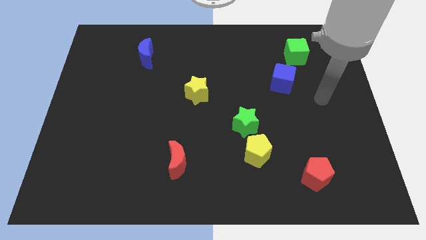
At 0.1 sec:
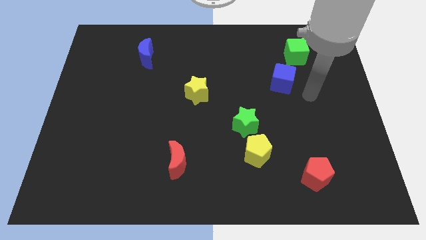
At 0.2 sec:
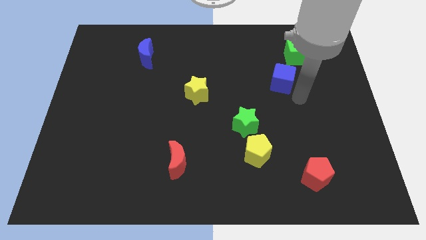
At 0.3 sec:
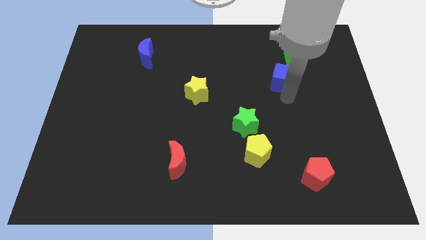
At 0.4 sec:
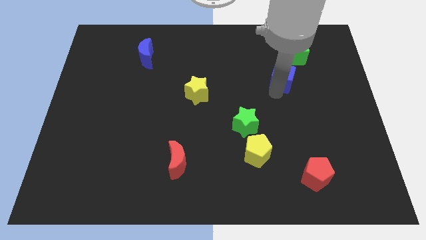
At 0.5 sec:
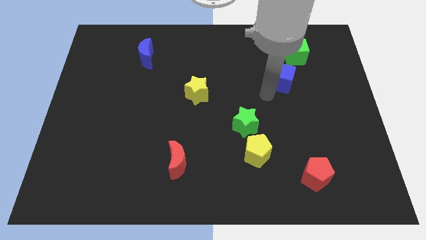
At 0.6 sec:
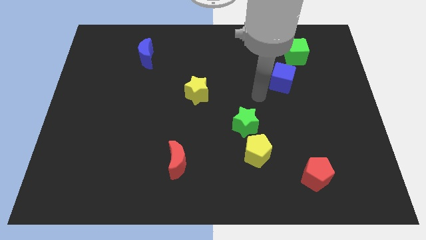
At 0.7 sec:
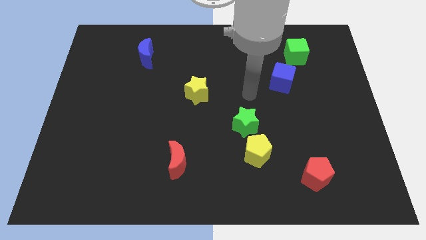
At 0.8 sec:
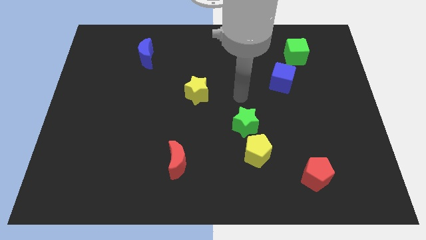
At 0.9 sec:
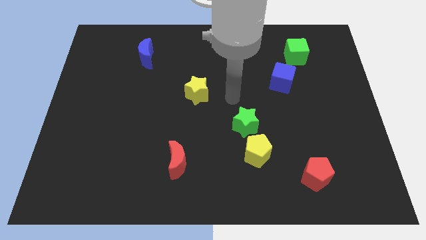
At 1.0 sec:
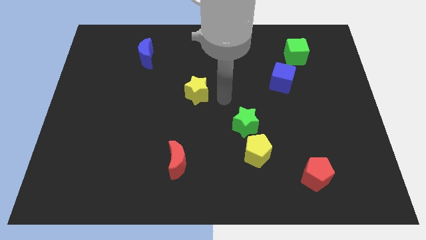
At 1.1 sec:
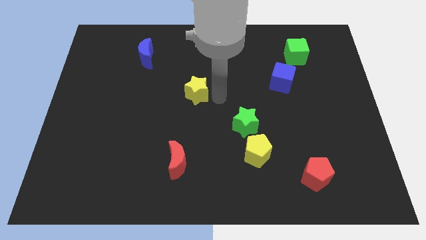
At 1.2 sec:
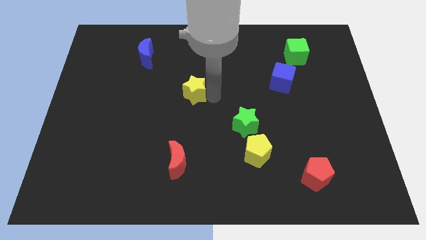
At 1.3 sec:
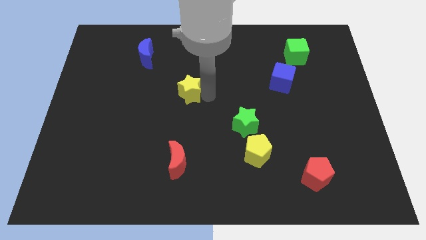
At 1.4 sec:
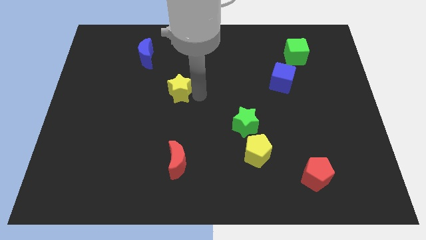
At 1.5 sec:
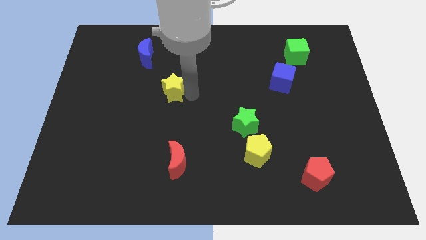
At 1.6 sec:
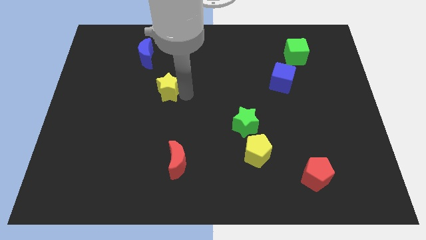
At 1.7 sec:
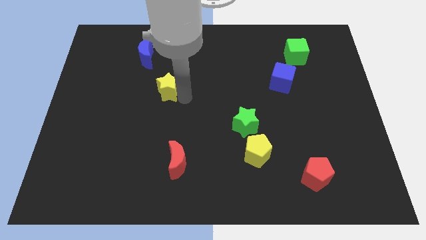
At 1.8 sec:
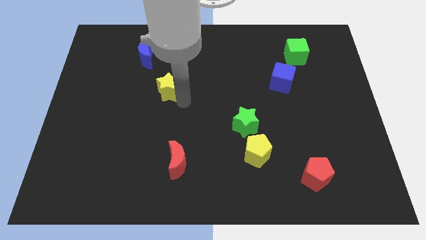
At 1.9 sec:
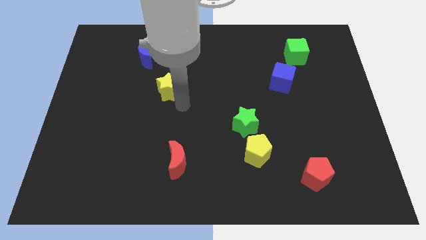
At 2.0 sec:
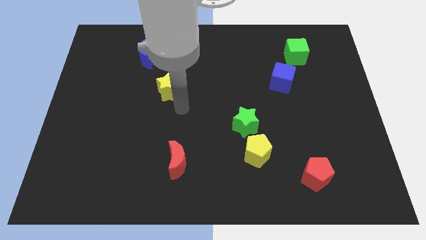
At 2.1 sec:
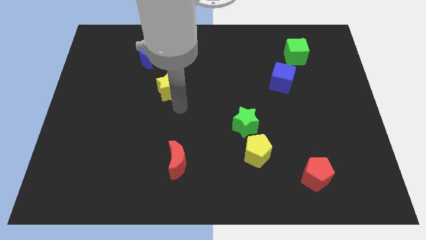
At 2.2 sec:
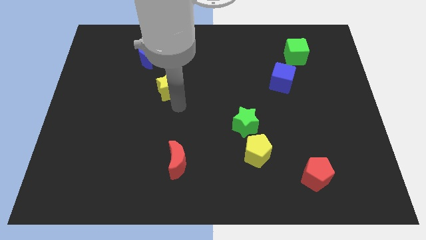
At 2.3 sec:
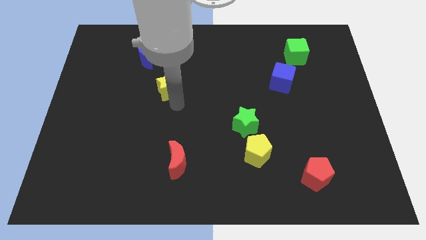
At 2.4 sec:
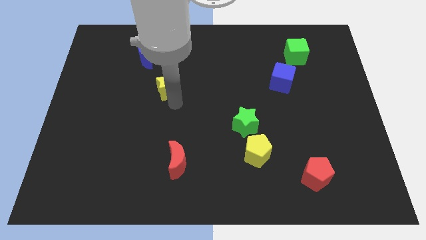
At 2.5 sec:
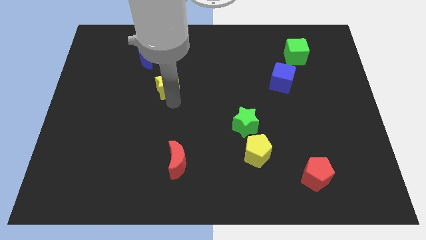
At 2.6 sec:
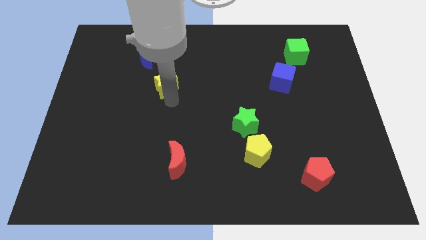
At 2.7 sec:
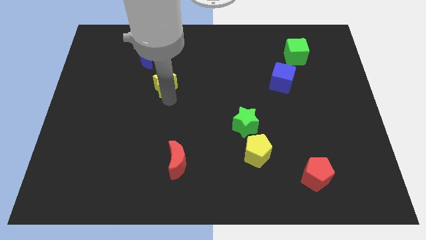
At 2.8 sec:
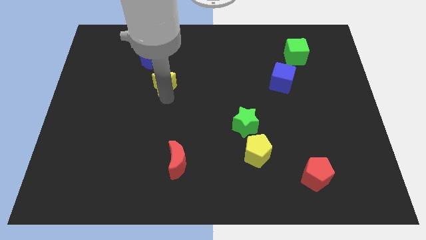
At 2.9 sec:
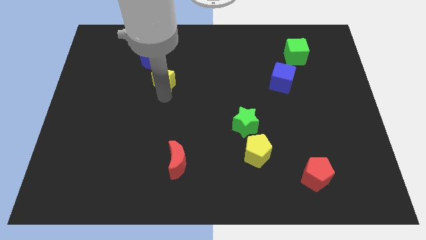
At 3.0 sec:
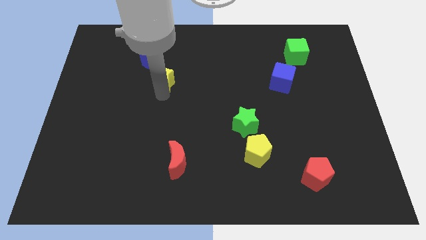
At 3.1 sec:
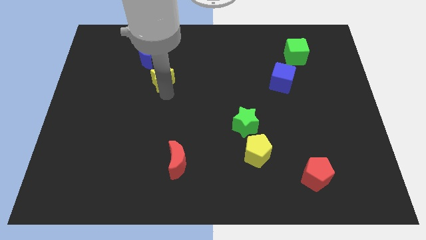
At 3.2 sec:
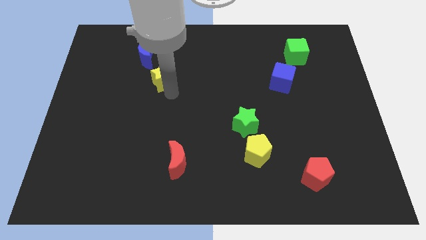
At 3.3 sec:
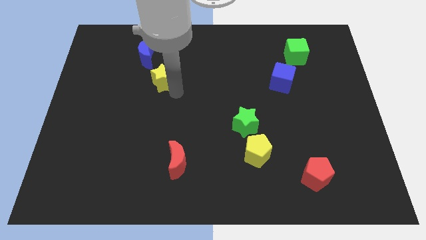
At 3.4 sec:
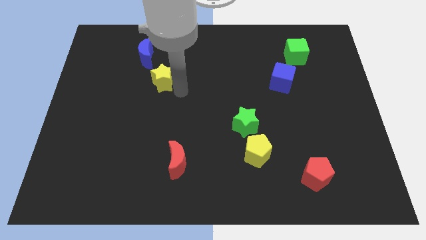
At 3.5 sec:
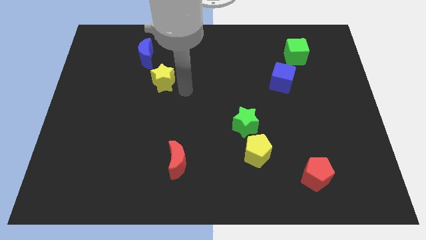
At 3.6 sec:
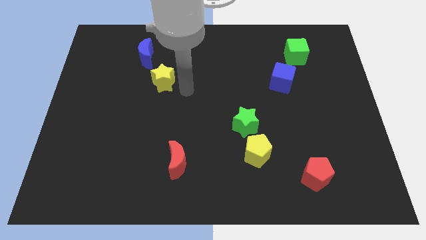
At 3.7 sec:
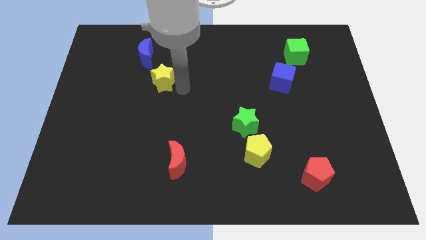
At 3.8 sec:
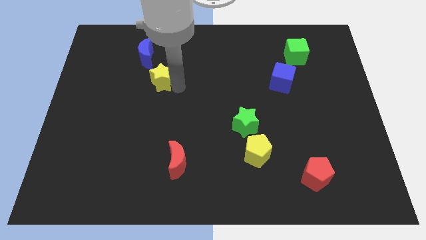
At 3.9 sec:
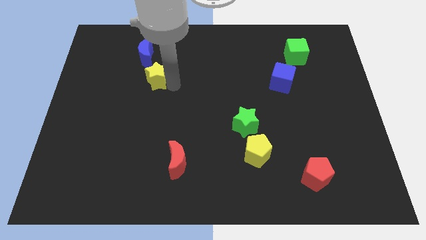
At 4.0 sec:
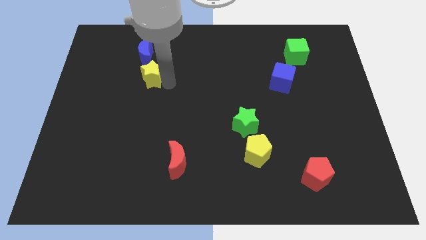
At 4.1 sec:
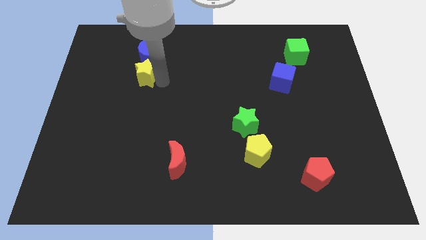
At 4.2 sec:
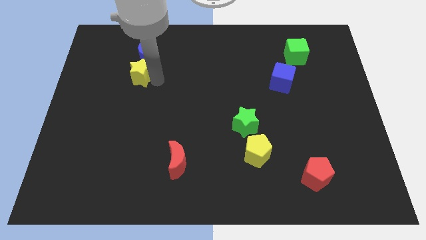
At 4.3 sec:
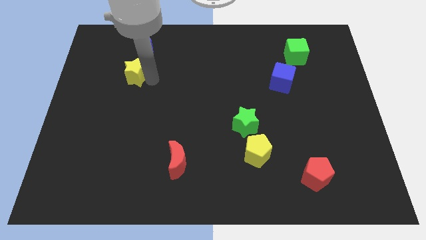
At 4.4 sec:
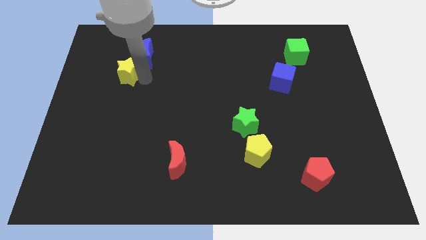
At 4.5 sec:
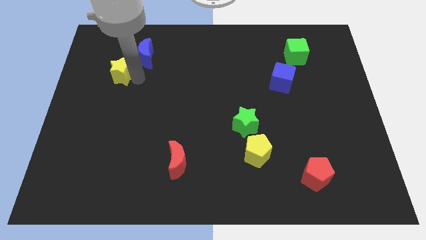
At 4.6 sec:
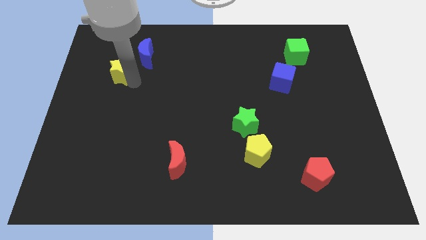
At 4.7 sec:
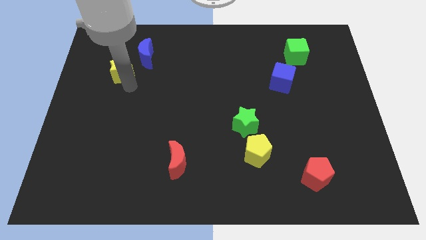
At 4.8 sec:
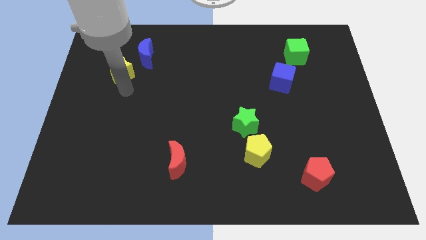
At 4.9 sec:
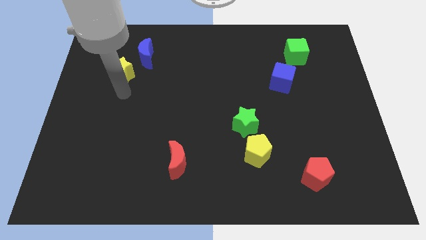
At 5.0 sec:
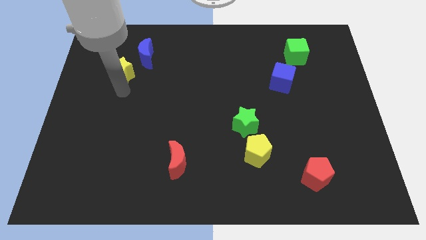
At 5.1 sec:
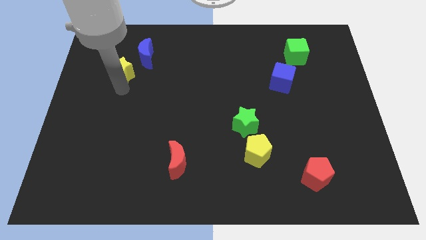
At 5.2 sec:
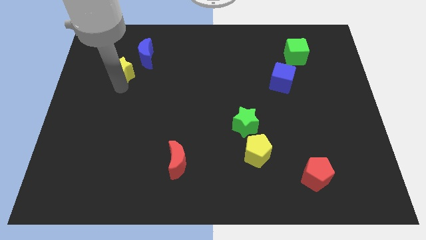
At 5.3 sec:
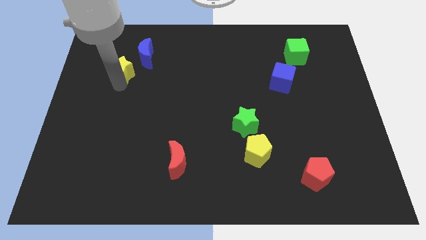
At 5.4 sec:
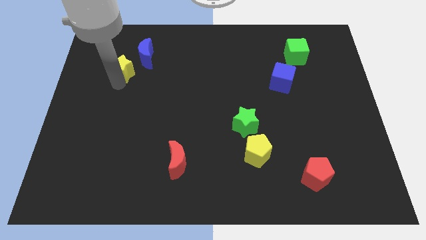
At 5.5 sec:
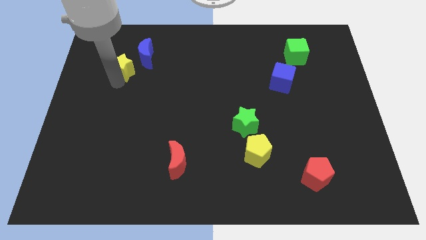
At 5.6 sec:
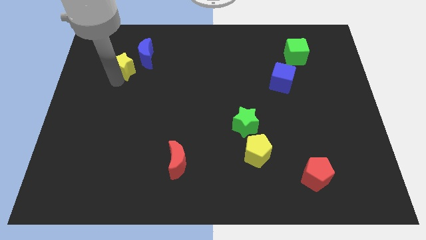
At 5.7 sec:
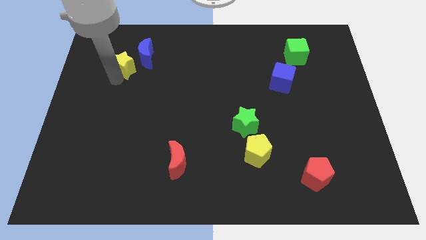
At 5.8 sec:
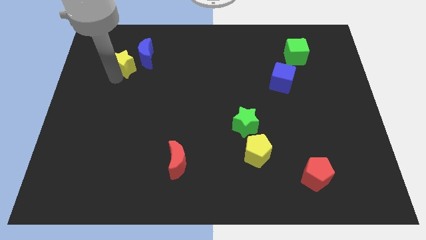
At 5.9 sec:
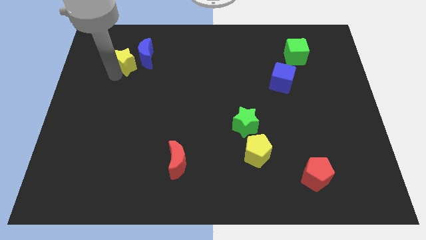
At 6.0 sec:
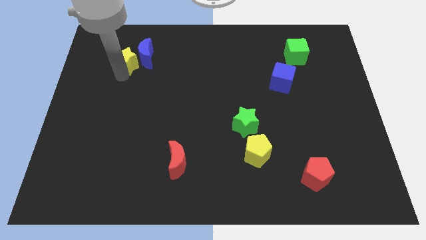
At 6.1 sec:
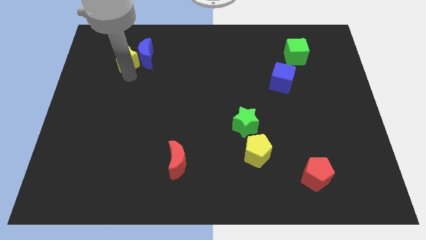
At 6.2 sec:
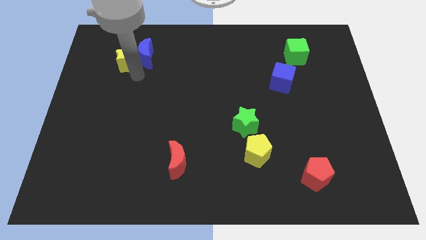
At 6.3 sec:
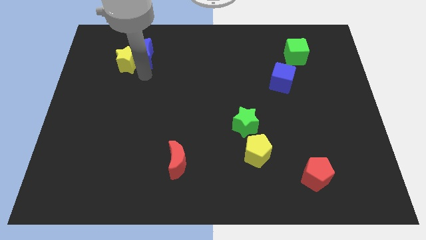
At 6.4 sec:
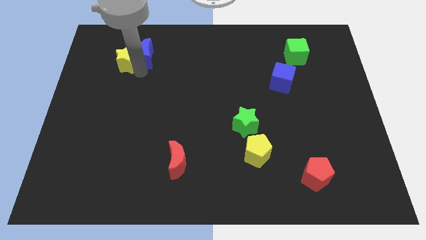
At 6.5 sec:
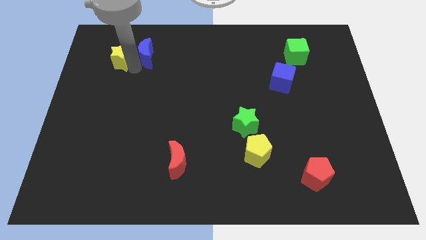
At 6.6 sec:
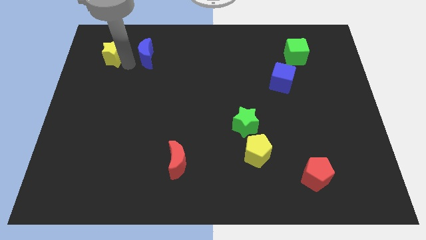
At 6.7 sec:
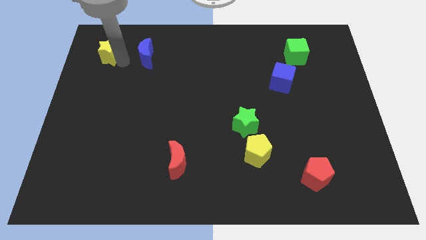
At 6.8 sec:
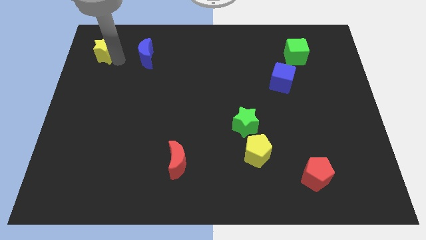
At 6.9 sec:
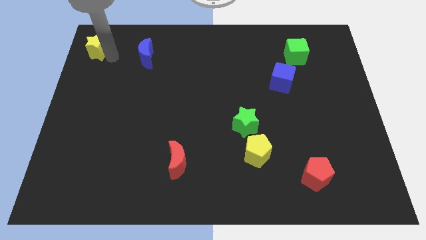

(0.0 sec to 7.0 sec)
push the yellow star to the top left corner
